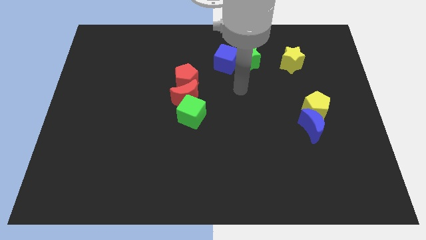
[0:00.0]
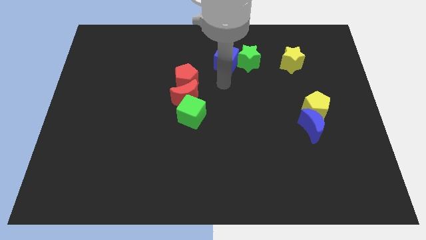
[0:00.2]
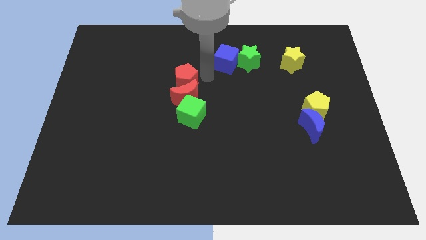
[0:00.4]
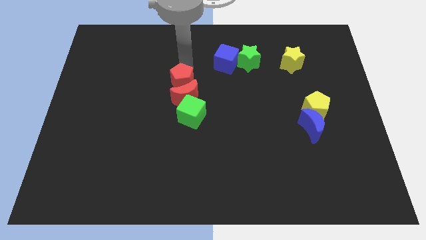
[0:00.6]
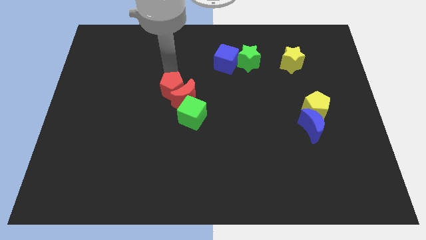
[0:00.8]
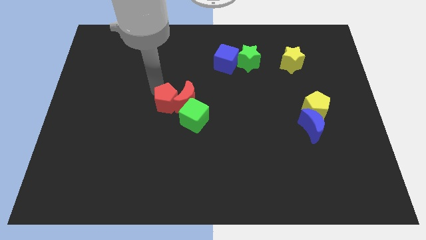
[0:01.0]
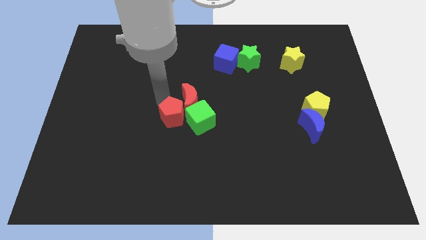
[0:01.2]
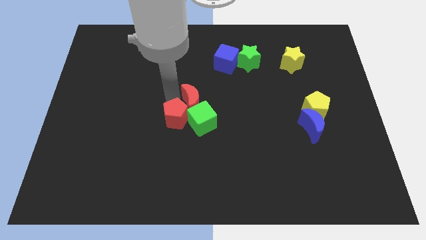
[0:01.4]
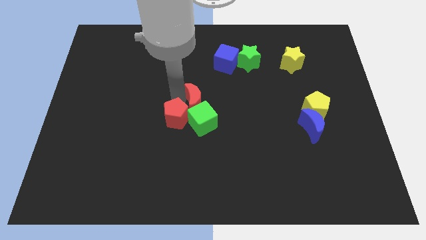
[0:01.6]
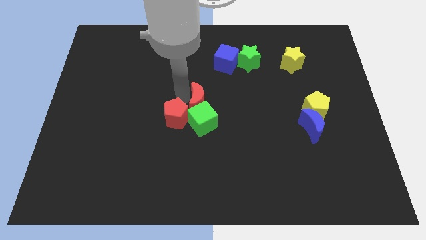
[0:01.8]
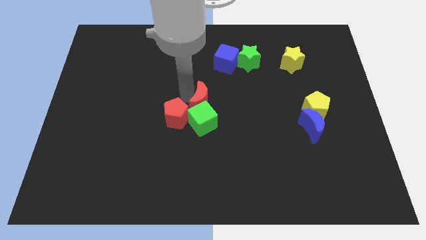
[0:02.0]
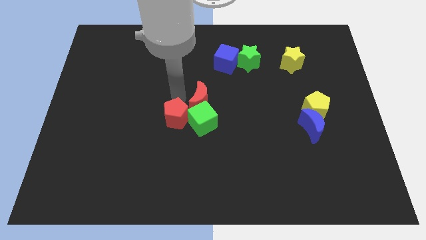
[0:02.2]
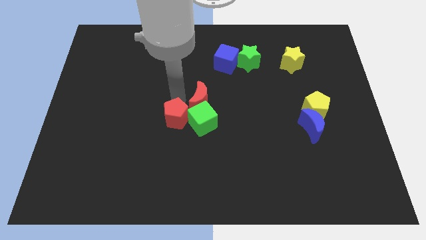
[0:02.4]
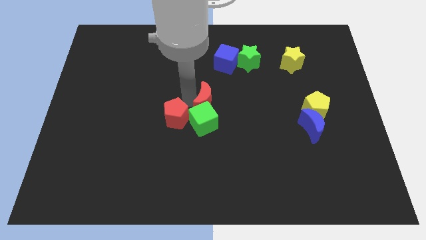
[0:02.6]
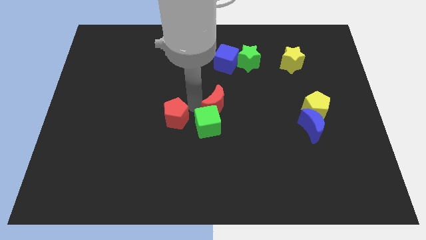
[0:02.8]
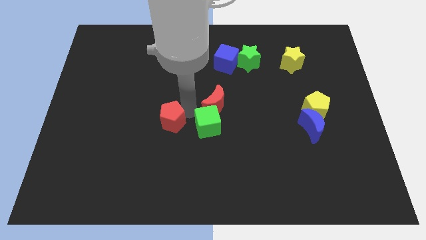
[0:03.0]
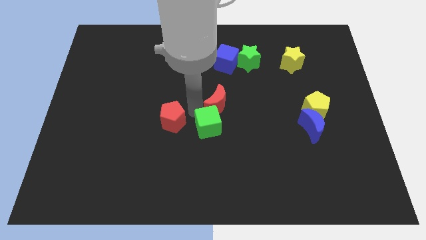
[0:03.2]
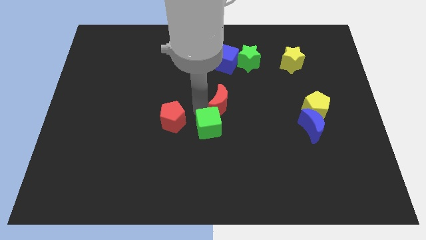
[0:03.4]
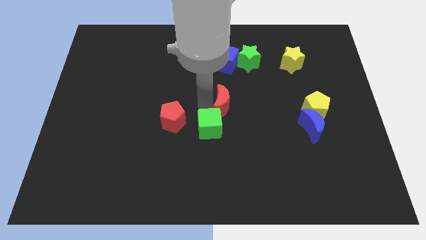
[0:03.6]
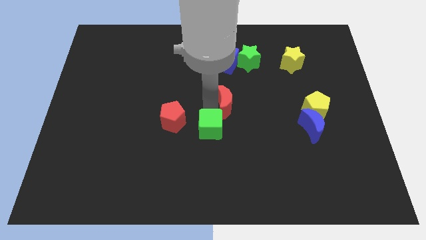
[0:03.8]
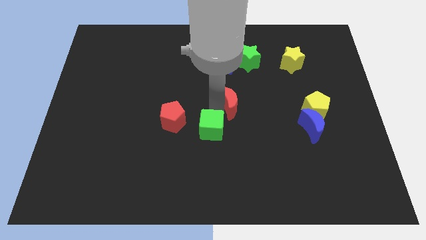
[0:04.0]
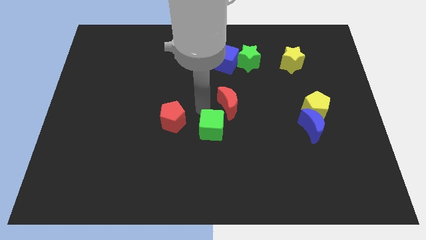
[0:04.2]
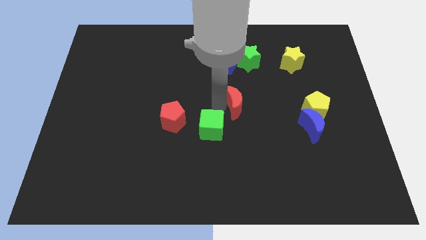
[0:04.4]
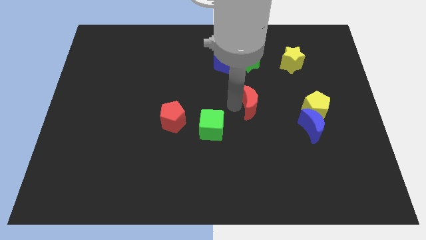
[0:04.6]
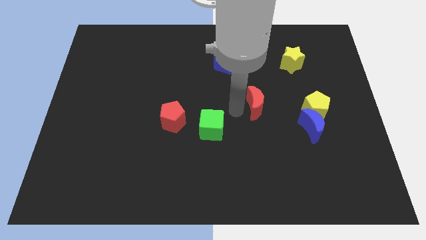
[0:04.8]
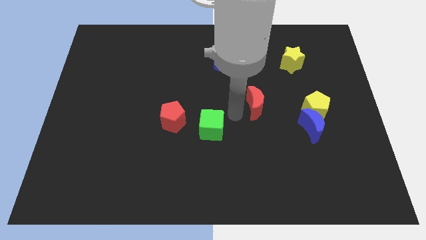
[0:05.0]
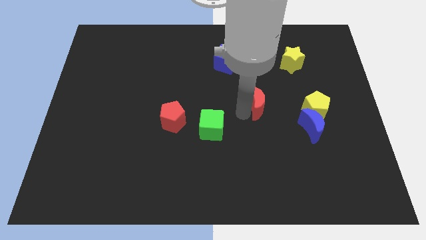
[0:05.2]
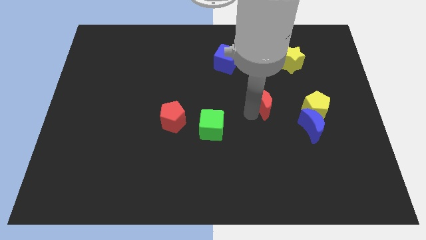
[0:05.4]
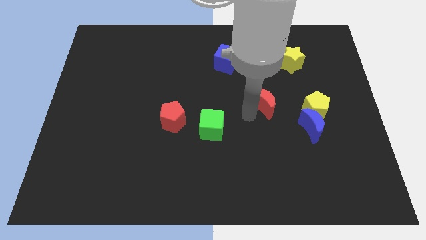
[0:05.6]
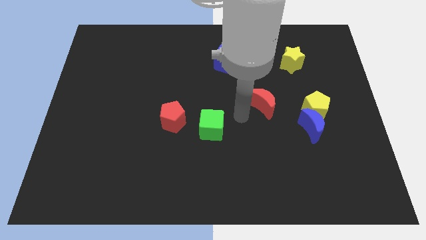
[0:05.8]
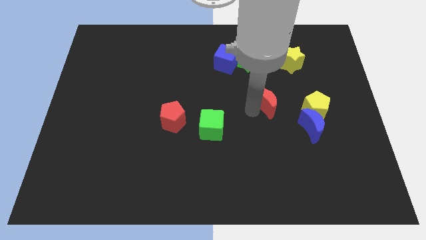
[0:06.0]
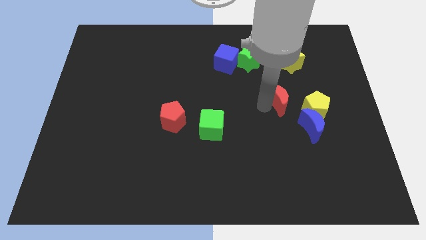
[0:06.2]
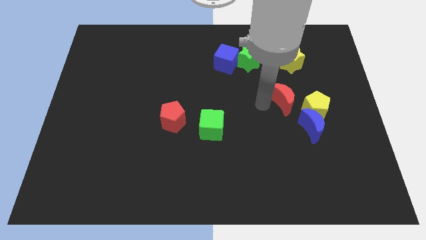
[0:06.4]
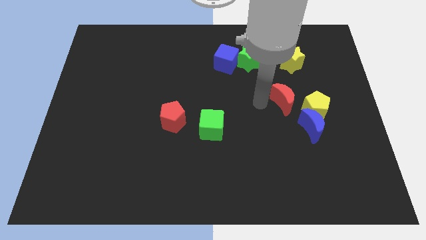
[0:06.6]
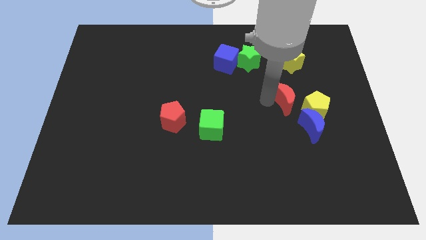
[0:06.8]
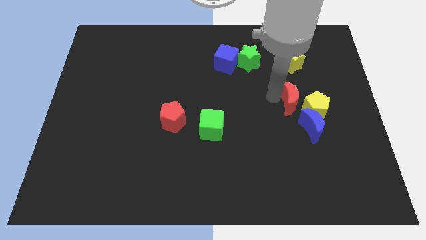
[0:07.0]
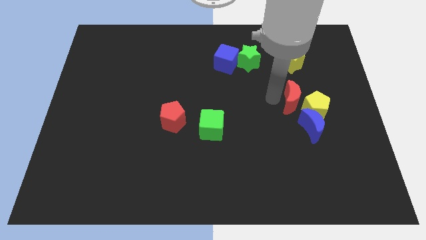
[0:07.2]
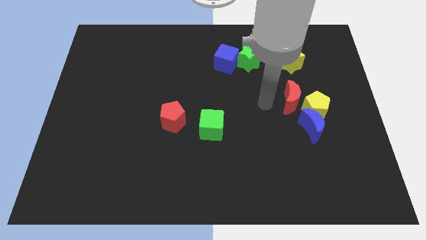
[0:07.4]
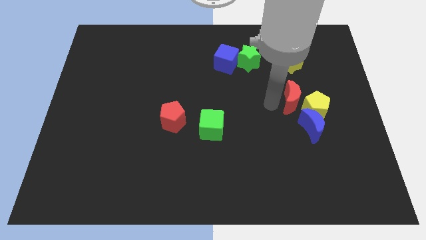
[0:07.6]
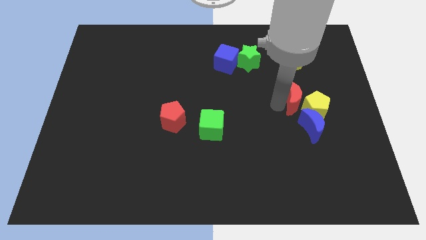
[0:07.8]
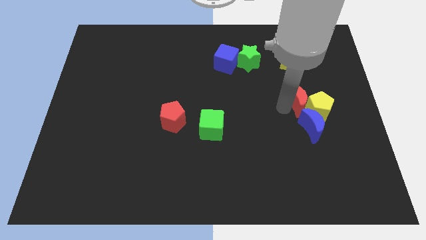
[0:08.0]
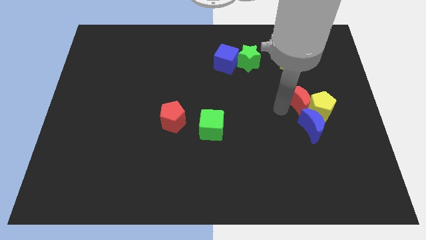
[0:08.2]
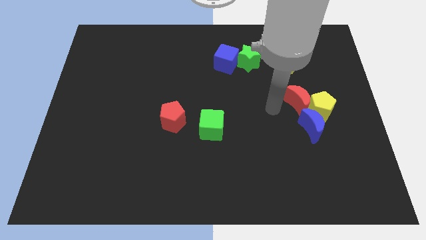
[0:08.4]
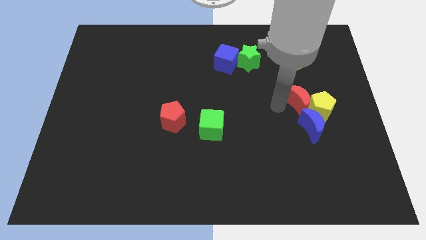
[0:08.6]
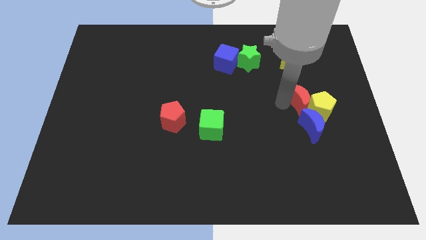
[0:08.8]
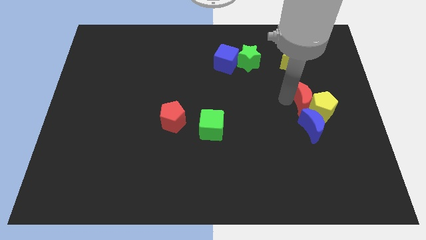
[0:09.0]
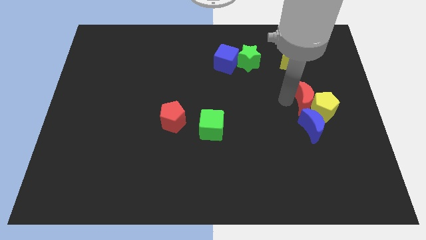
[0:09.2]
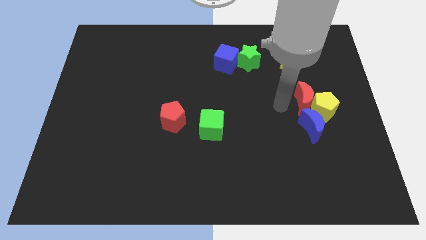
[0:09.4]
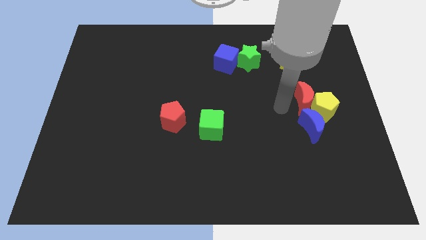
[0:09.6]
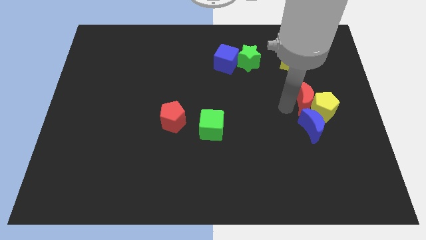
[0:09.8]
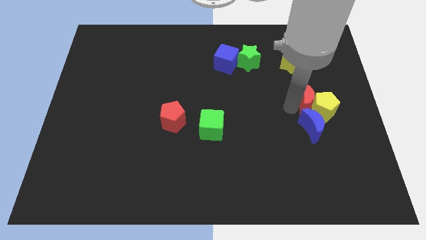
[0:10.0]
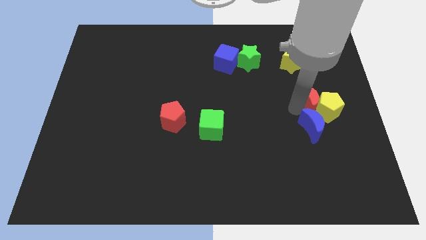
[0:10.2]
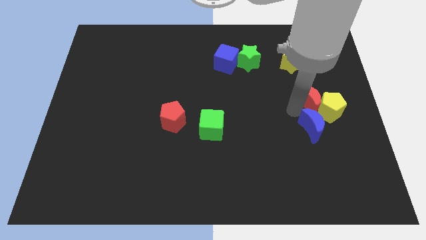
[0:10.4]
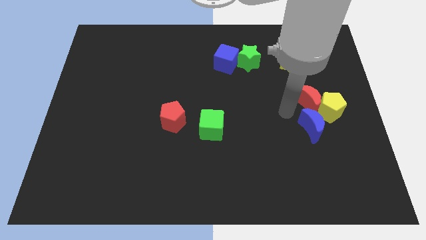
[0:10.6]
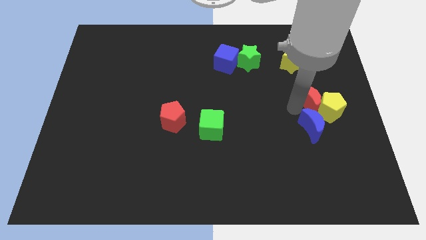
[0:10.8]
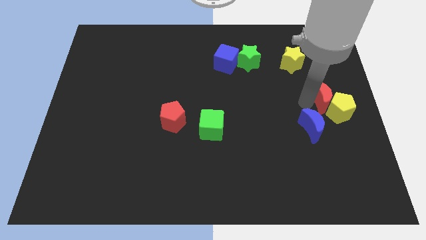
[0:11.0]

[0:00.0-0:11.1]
move the red moon to the right side of the board

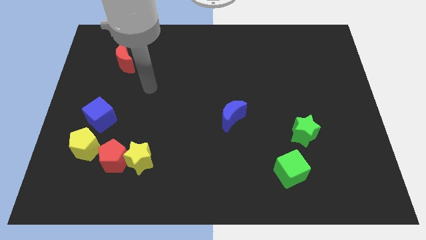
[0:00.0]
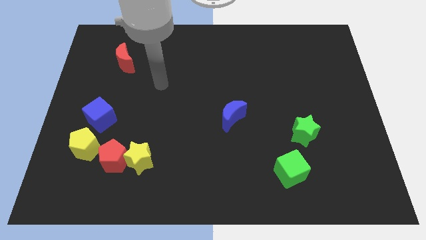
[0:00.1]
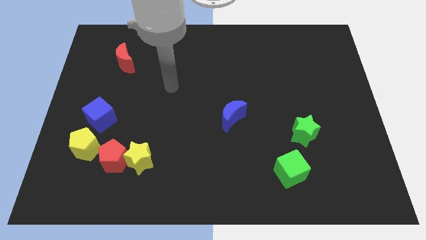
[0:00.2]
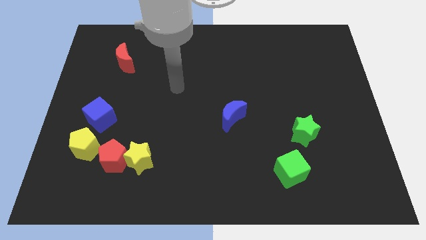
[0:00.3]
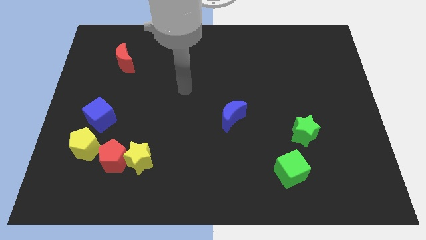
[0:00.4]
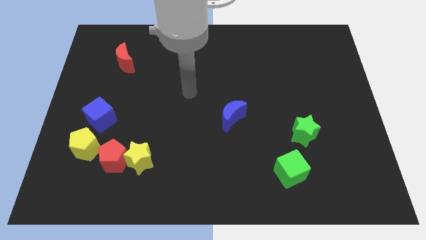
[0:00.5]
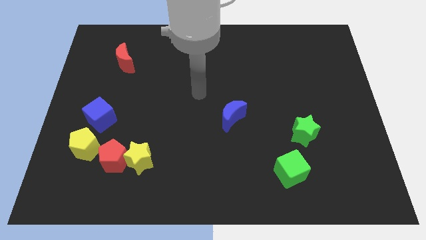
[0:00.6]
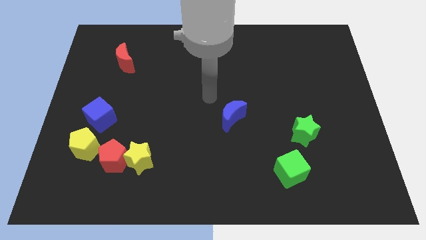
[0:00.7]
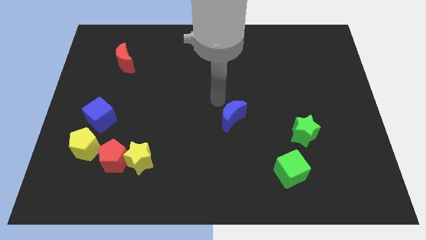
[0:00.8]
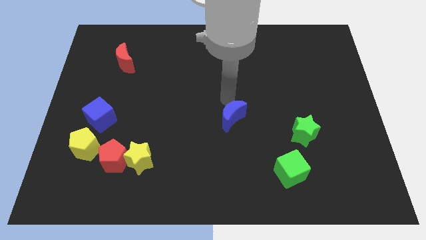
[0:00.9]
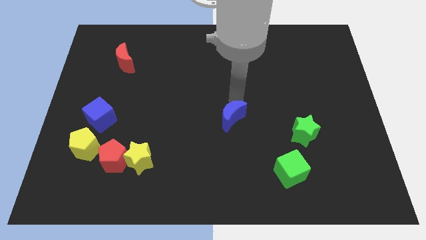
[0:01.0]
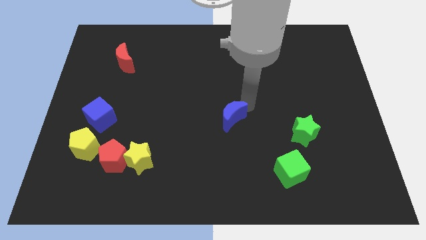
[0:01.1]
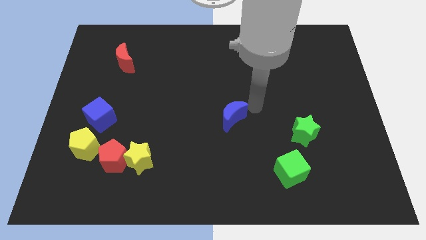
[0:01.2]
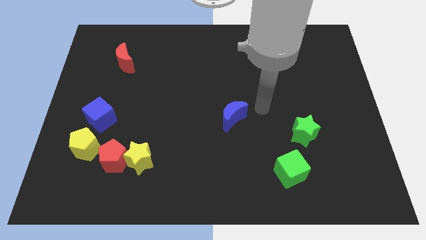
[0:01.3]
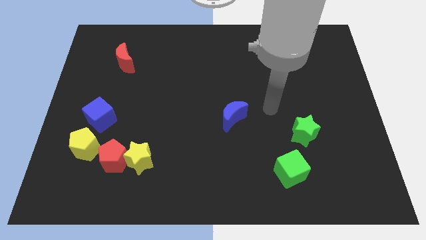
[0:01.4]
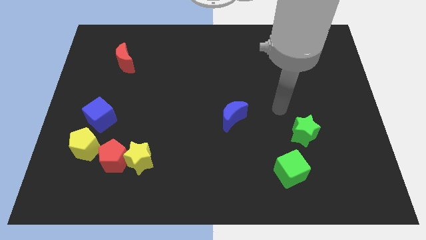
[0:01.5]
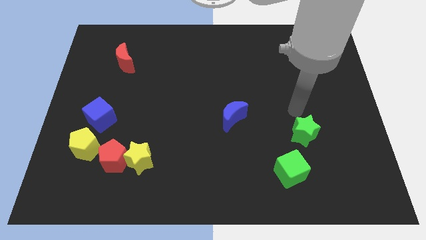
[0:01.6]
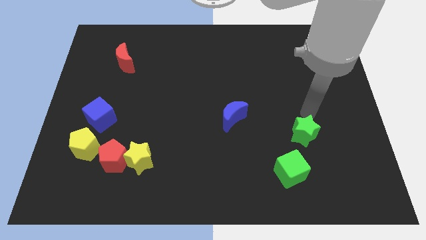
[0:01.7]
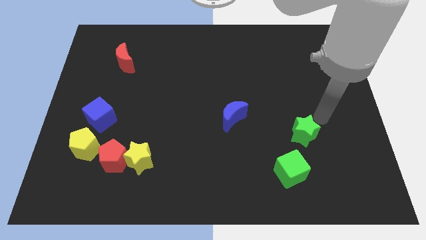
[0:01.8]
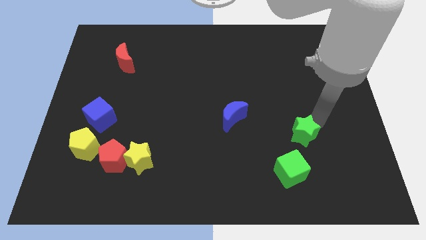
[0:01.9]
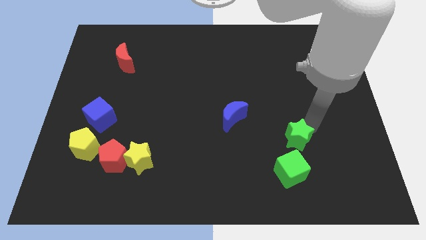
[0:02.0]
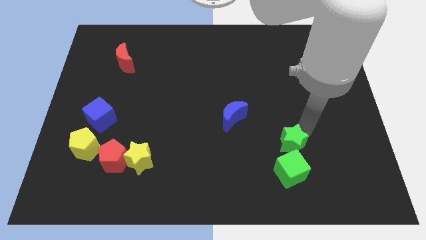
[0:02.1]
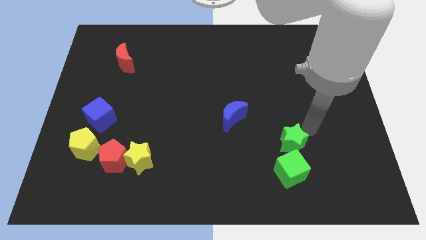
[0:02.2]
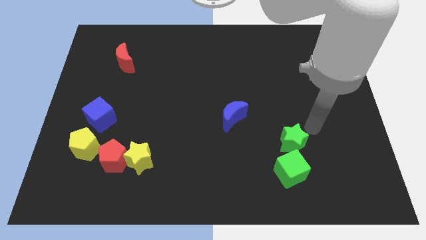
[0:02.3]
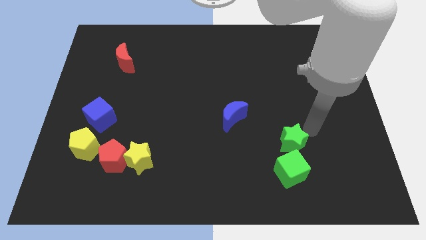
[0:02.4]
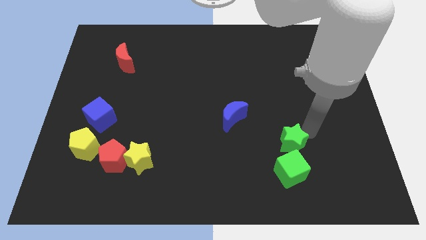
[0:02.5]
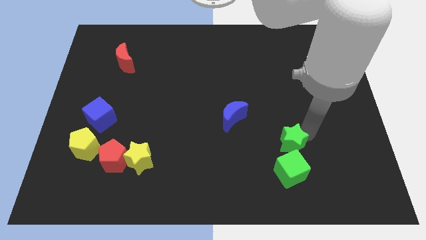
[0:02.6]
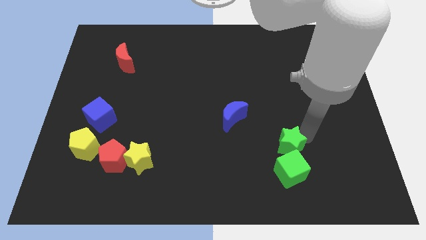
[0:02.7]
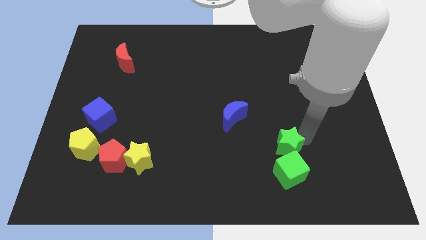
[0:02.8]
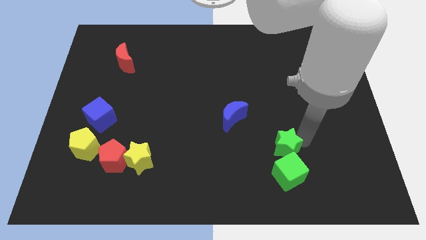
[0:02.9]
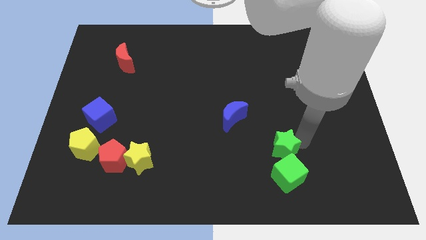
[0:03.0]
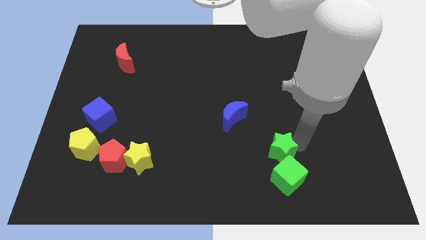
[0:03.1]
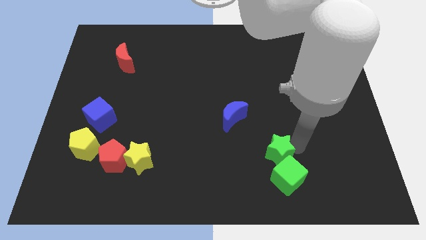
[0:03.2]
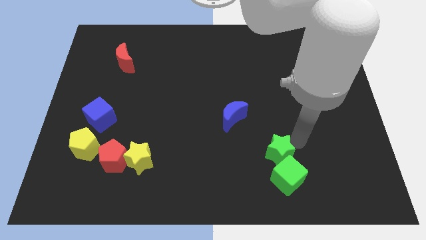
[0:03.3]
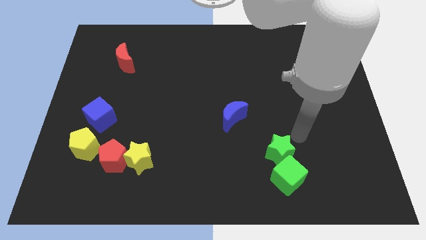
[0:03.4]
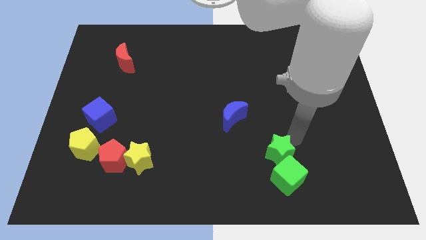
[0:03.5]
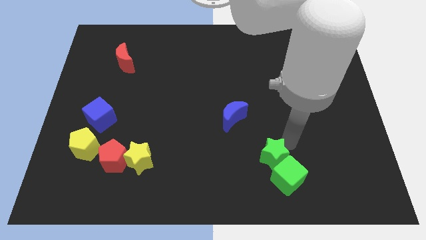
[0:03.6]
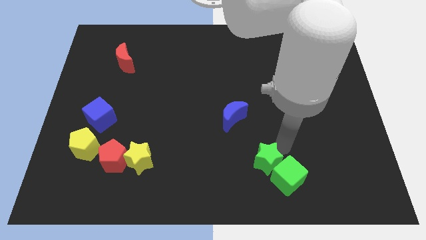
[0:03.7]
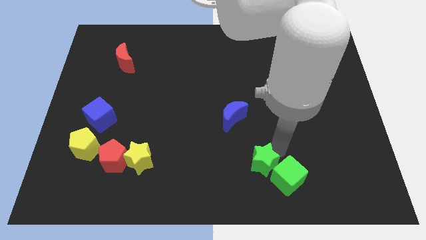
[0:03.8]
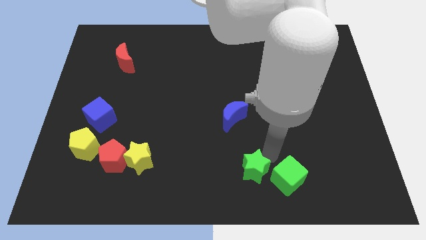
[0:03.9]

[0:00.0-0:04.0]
move the green star to the bottom
